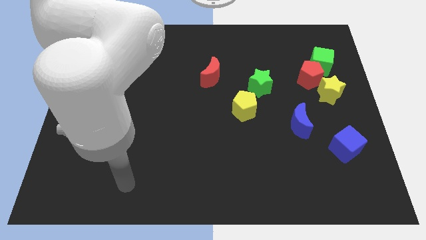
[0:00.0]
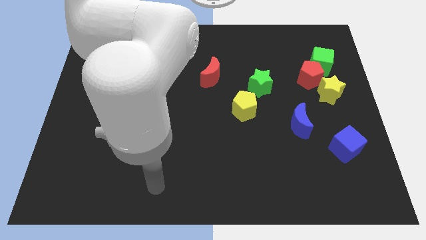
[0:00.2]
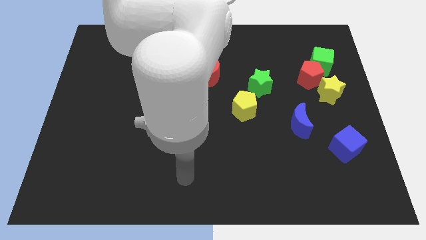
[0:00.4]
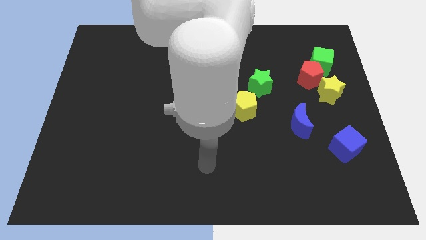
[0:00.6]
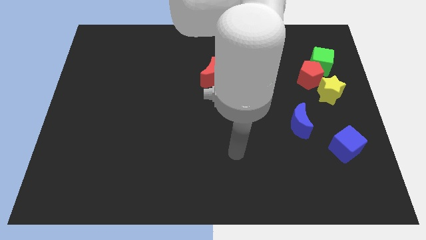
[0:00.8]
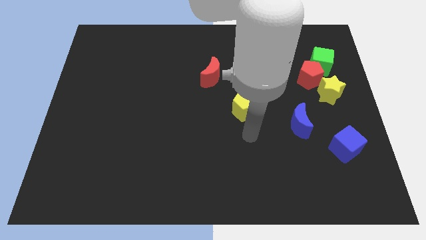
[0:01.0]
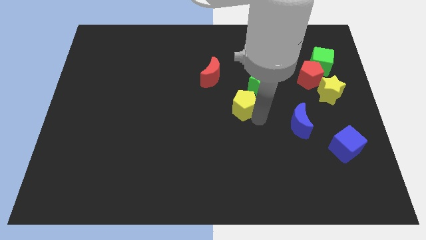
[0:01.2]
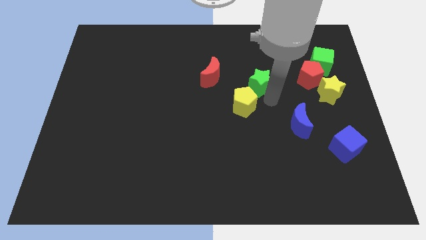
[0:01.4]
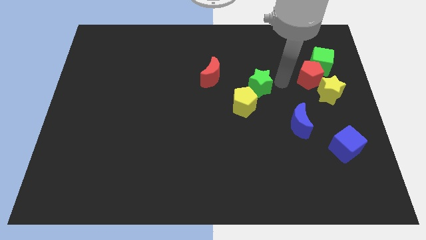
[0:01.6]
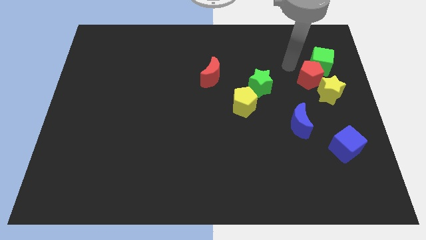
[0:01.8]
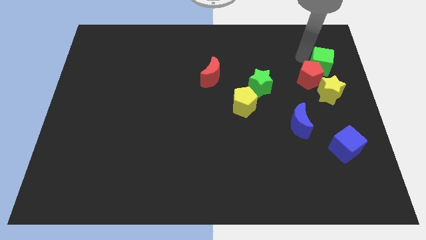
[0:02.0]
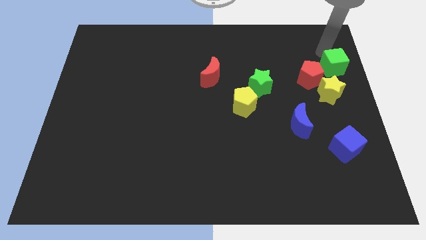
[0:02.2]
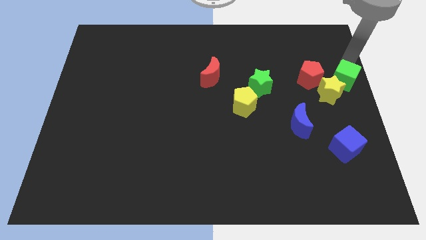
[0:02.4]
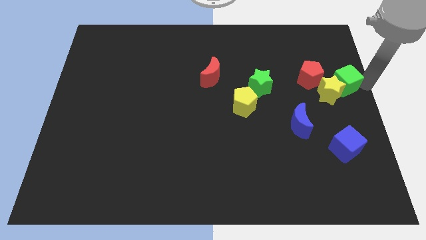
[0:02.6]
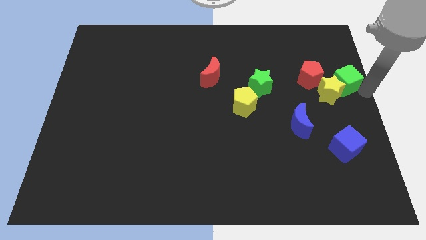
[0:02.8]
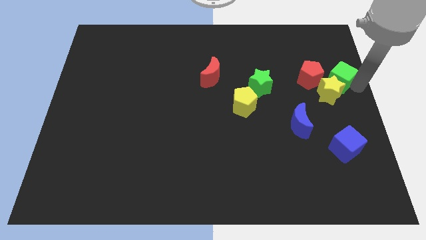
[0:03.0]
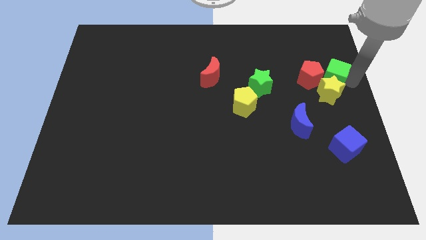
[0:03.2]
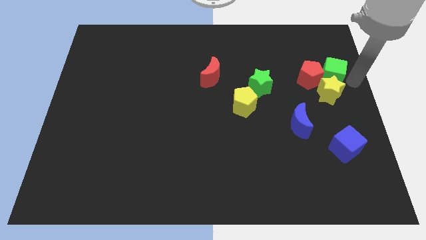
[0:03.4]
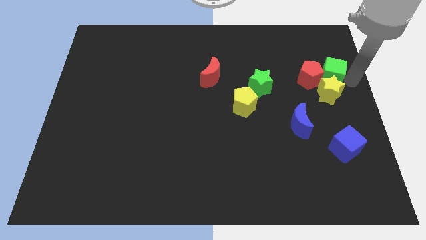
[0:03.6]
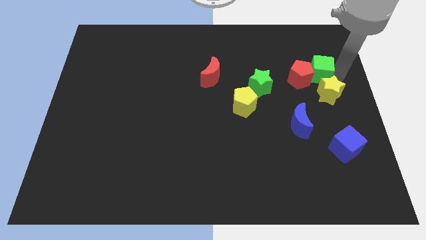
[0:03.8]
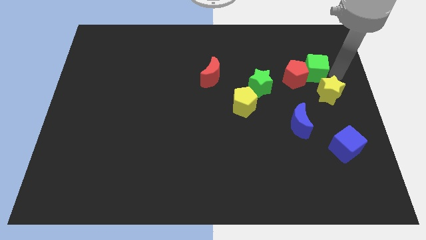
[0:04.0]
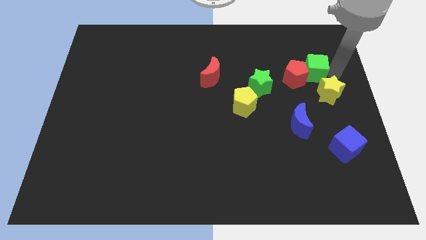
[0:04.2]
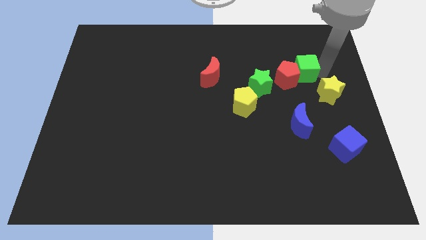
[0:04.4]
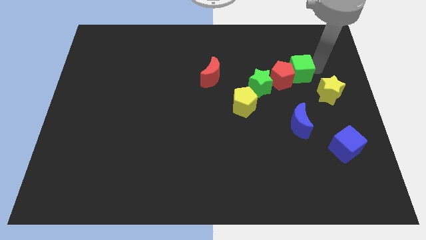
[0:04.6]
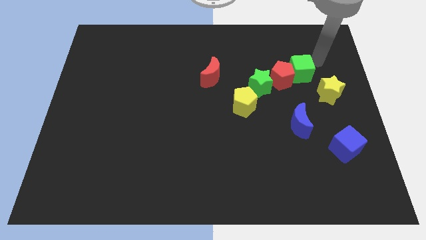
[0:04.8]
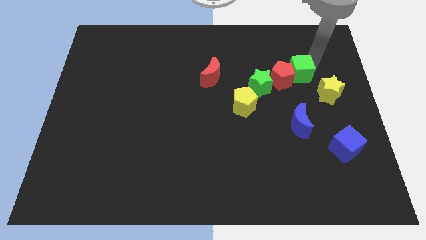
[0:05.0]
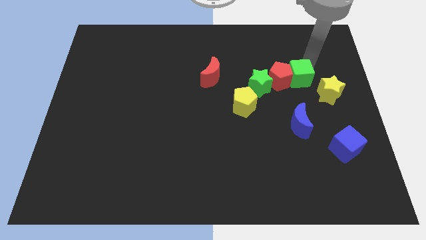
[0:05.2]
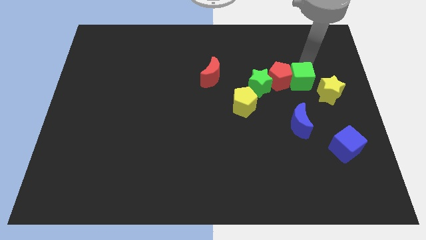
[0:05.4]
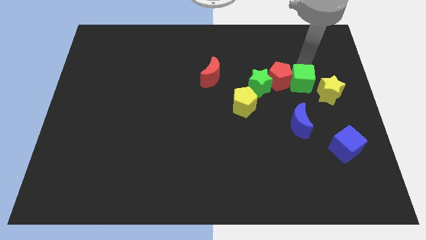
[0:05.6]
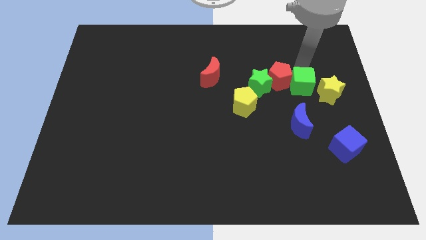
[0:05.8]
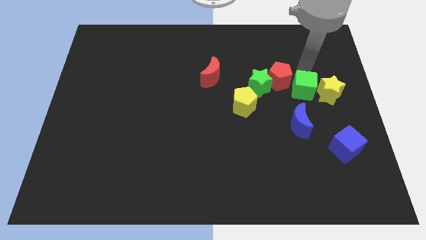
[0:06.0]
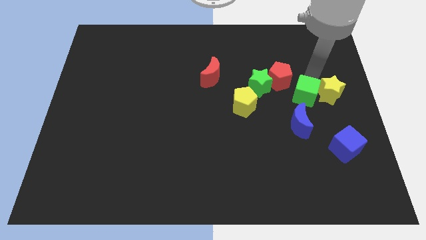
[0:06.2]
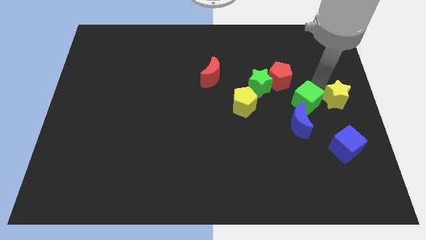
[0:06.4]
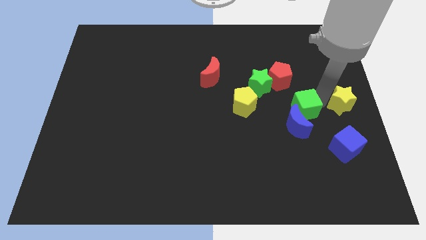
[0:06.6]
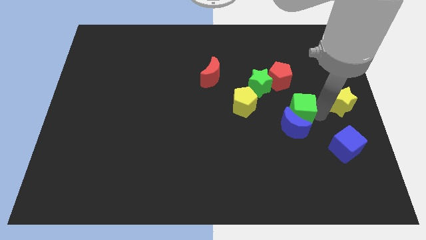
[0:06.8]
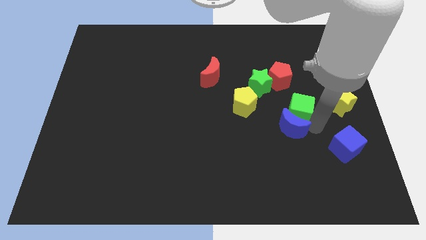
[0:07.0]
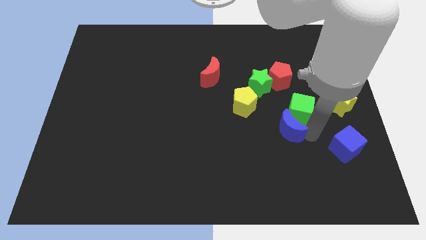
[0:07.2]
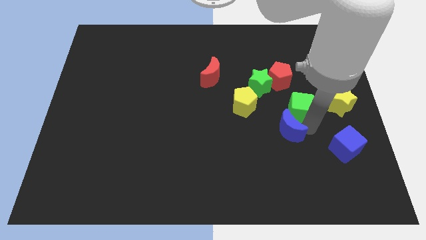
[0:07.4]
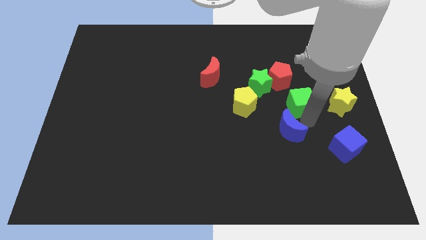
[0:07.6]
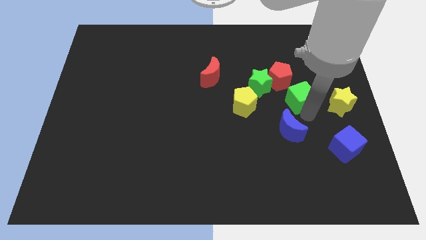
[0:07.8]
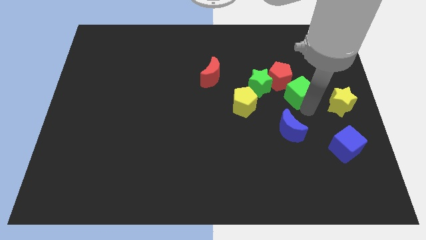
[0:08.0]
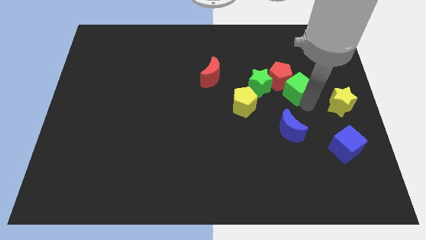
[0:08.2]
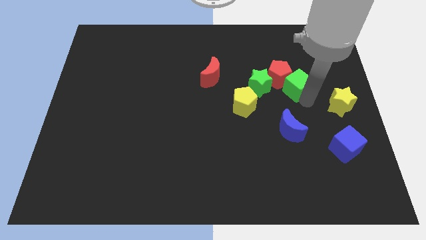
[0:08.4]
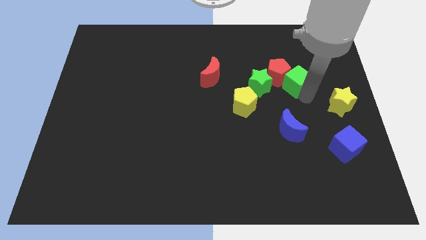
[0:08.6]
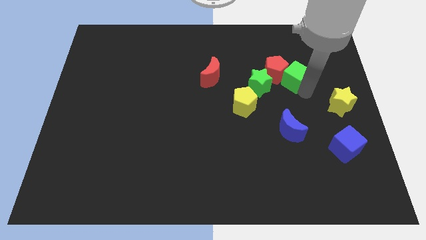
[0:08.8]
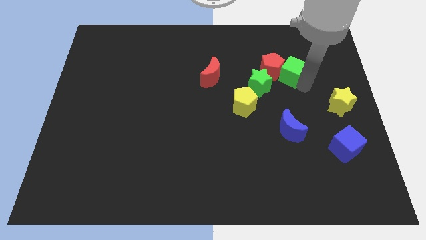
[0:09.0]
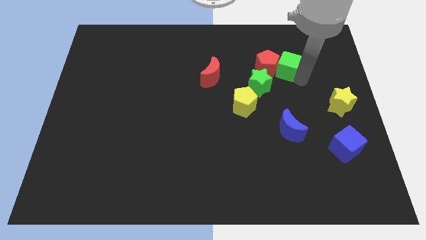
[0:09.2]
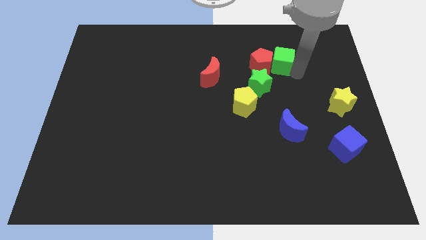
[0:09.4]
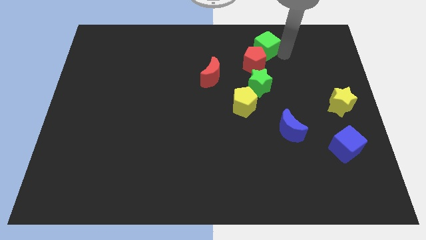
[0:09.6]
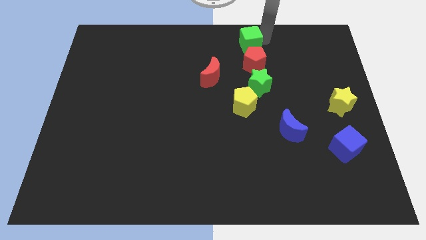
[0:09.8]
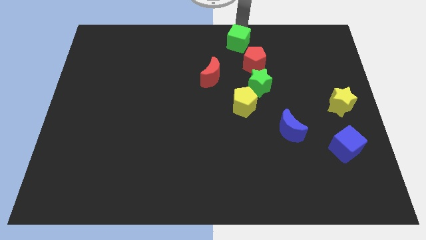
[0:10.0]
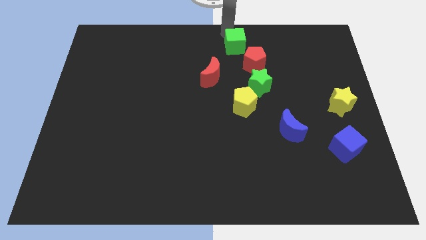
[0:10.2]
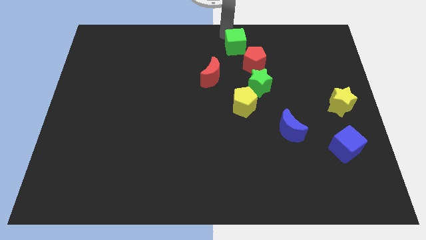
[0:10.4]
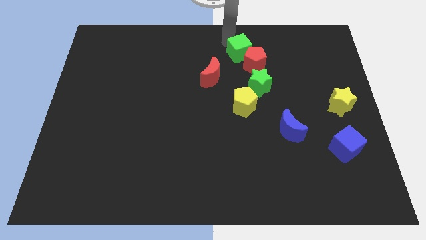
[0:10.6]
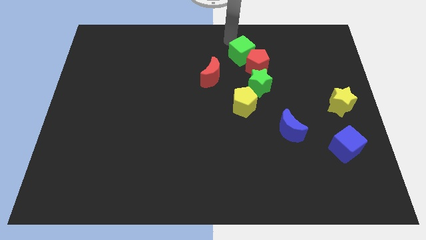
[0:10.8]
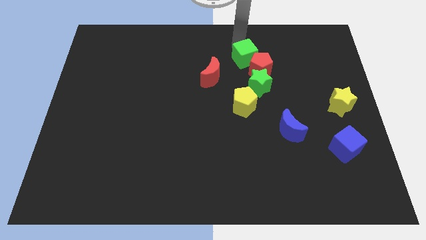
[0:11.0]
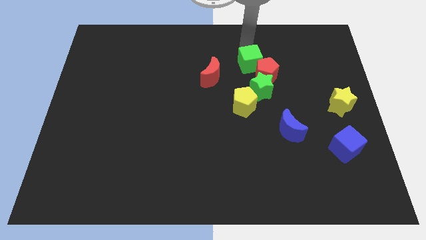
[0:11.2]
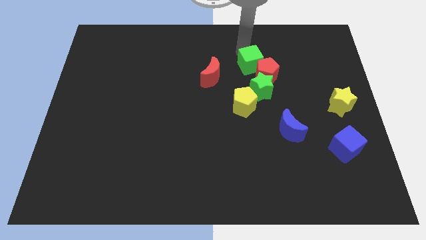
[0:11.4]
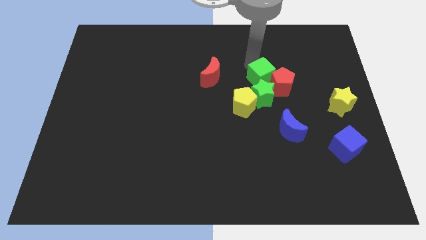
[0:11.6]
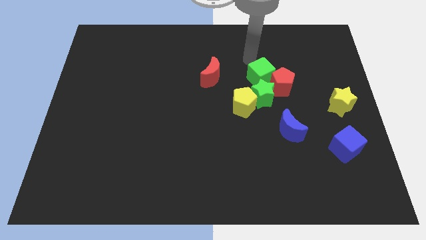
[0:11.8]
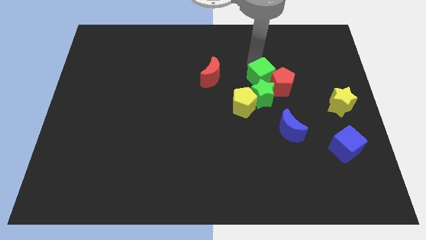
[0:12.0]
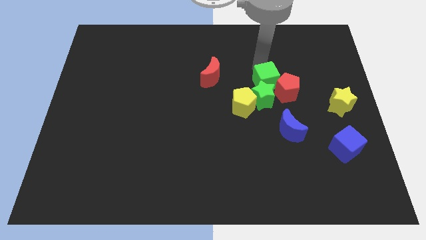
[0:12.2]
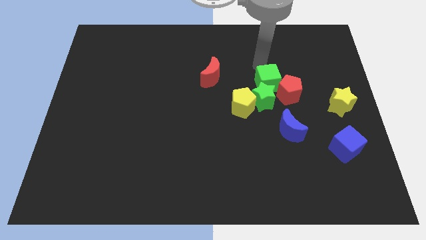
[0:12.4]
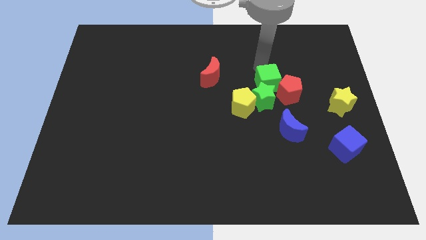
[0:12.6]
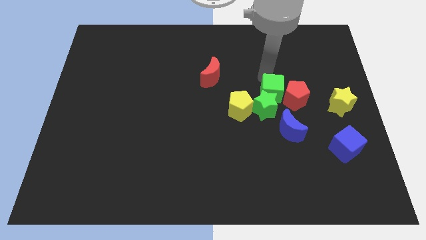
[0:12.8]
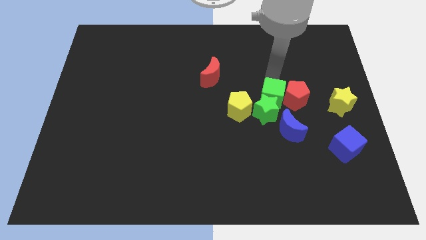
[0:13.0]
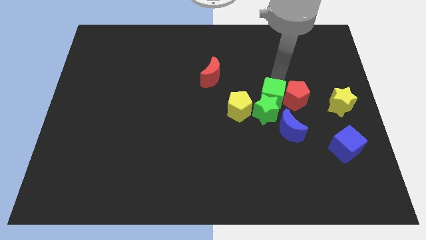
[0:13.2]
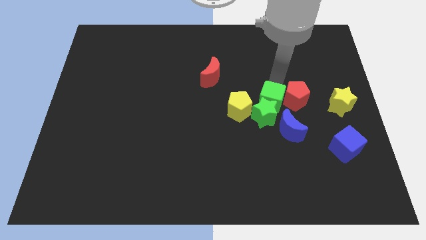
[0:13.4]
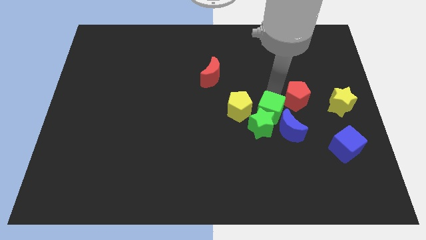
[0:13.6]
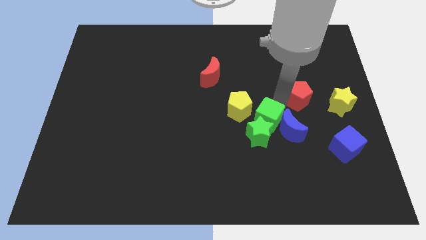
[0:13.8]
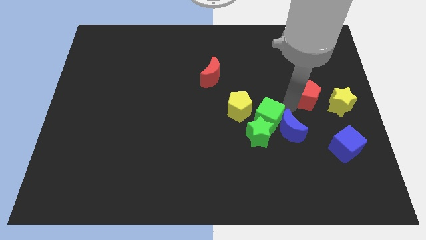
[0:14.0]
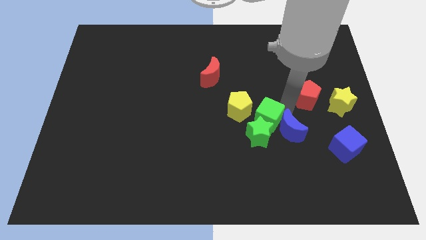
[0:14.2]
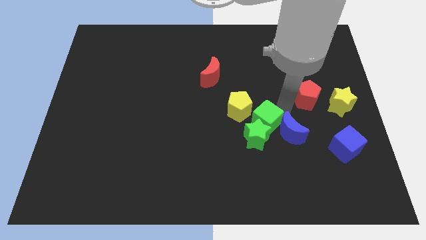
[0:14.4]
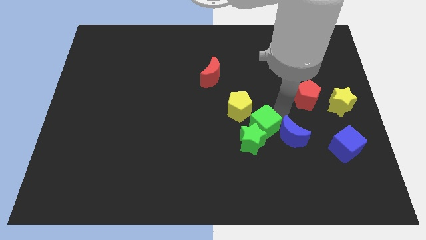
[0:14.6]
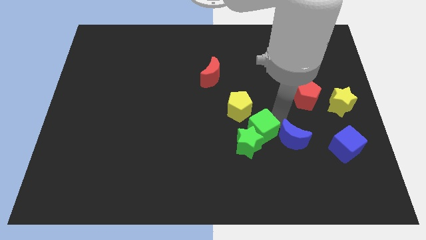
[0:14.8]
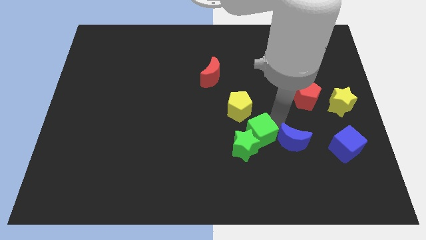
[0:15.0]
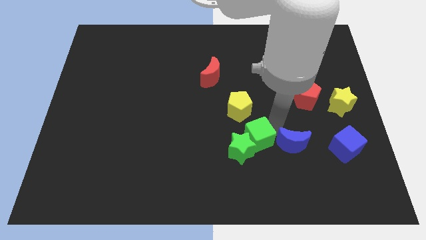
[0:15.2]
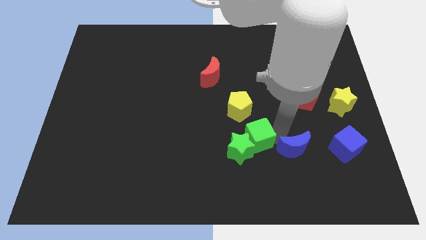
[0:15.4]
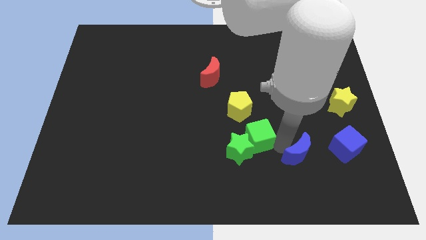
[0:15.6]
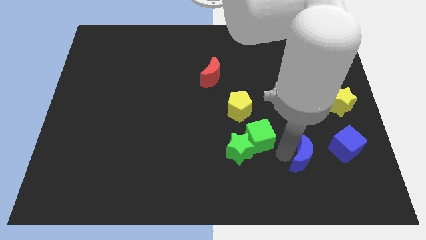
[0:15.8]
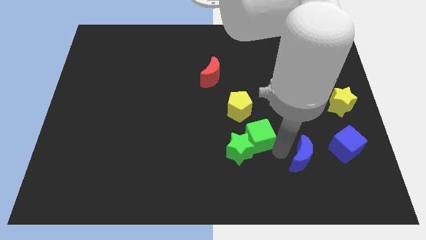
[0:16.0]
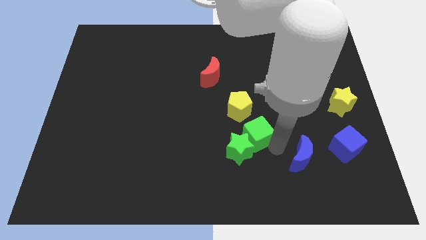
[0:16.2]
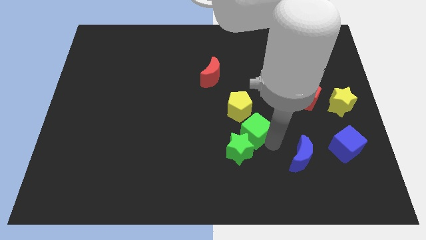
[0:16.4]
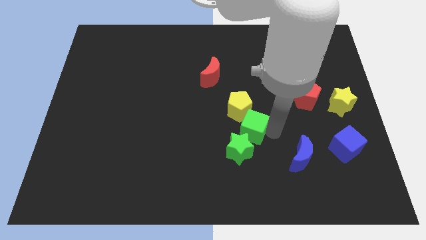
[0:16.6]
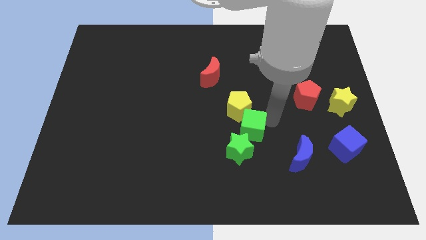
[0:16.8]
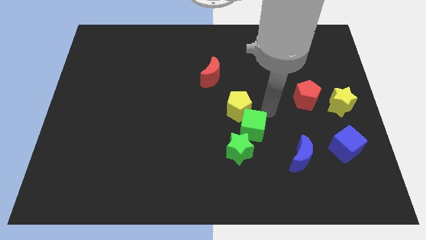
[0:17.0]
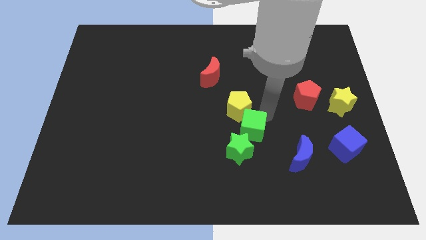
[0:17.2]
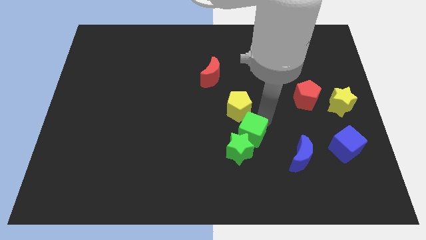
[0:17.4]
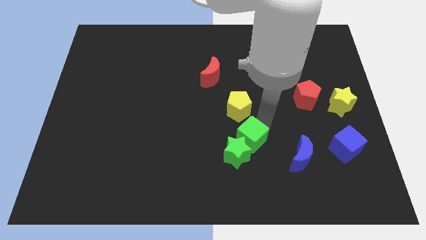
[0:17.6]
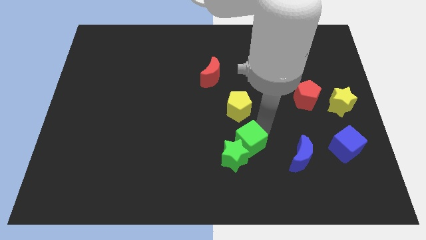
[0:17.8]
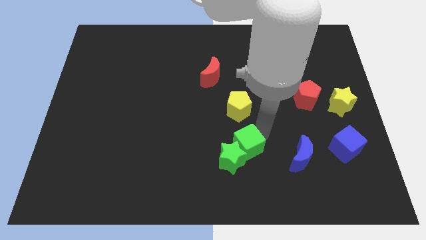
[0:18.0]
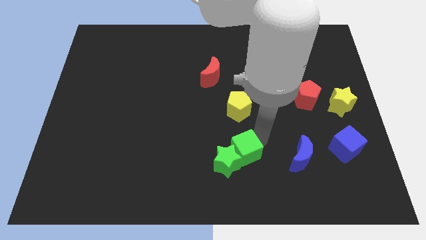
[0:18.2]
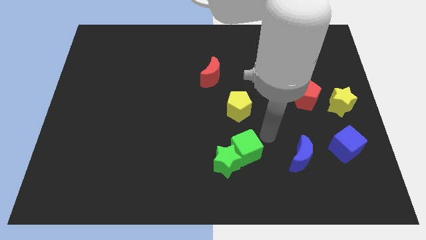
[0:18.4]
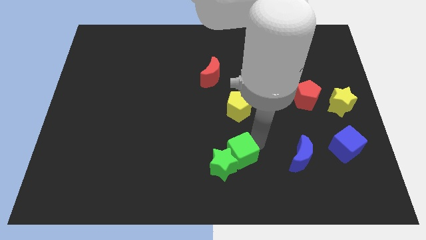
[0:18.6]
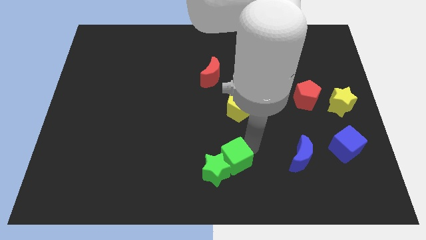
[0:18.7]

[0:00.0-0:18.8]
slide the green cube to the bottom side
